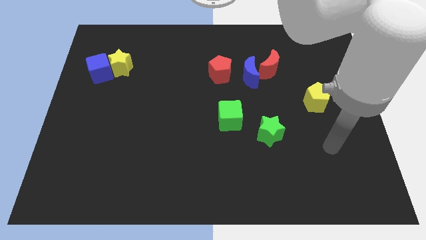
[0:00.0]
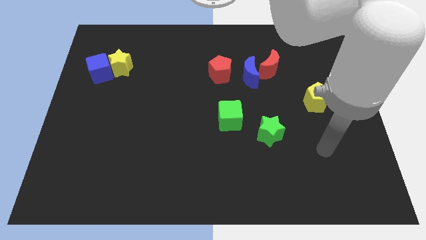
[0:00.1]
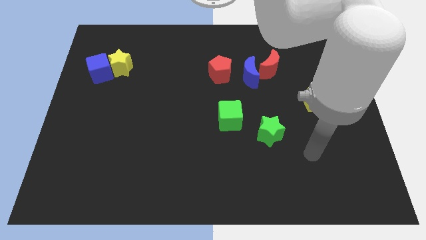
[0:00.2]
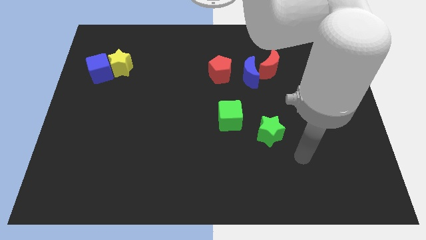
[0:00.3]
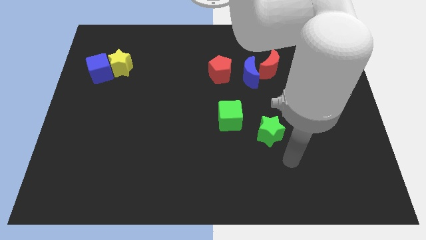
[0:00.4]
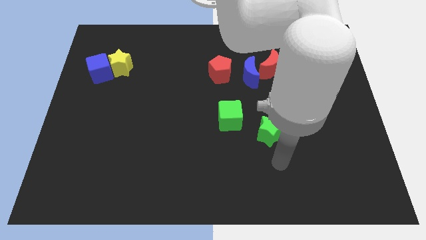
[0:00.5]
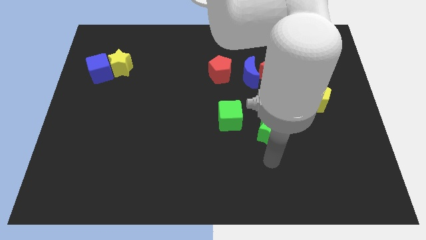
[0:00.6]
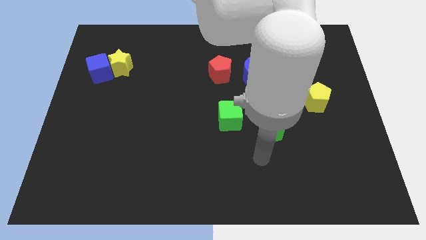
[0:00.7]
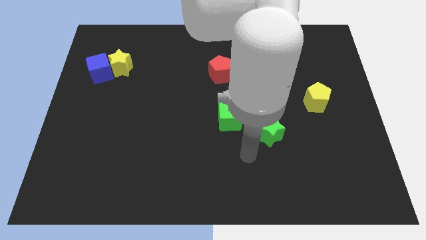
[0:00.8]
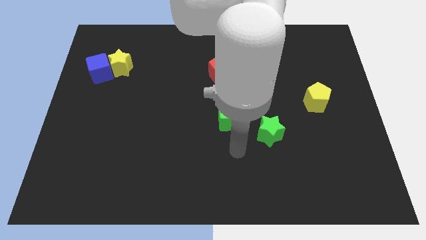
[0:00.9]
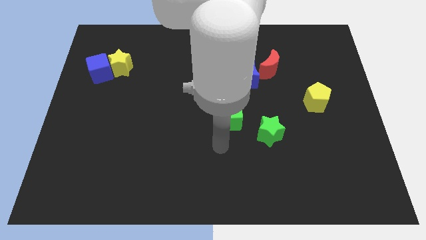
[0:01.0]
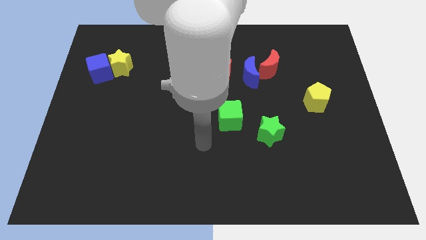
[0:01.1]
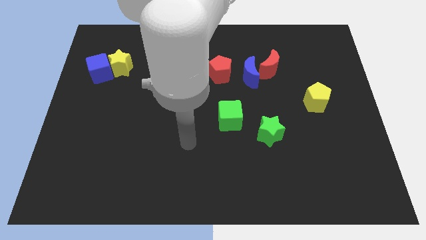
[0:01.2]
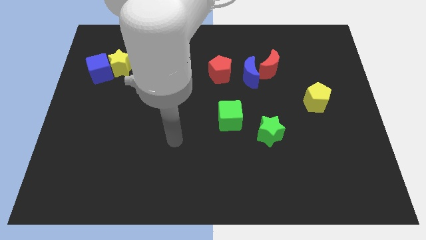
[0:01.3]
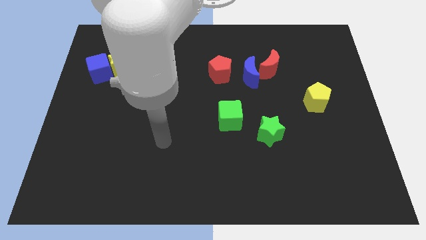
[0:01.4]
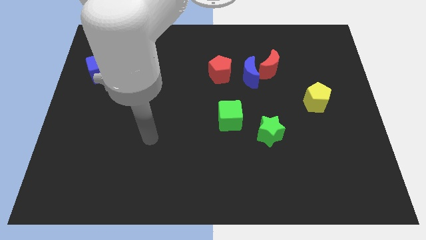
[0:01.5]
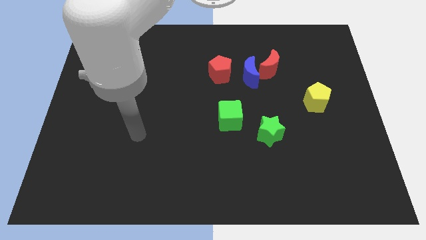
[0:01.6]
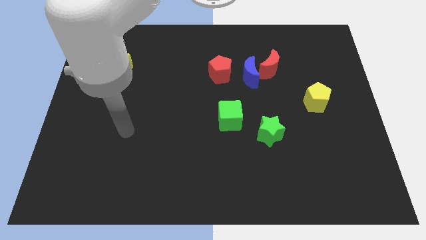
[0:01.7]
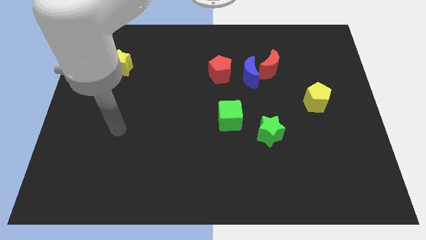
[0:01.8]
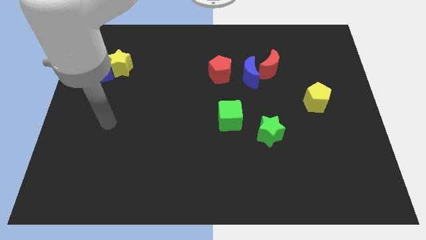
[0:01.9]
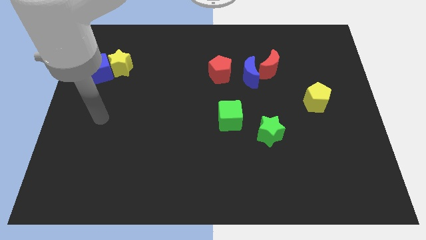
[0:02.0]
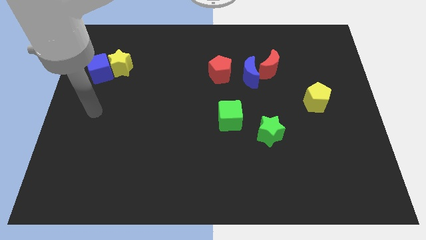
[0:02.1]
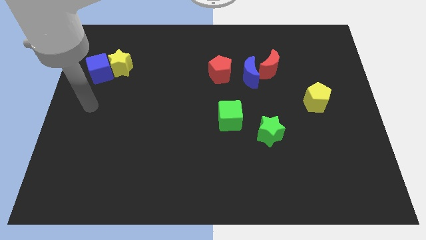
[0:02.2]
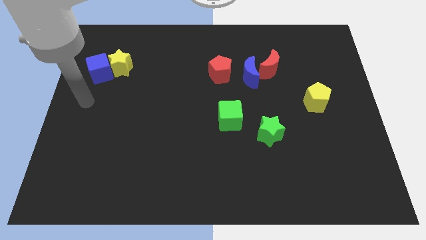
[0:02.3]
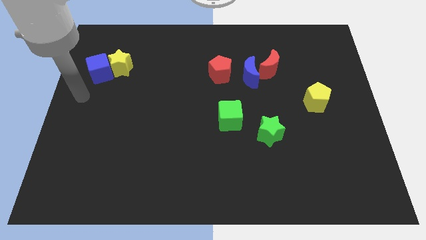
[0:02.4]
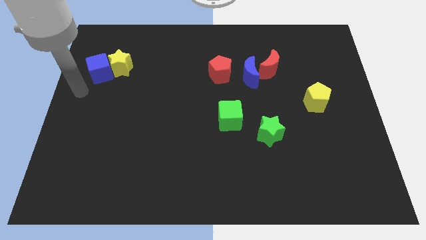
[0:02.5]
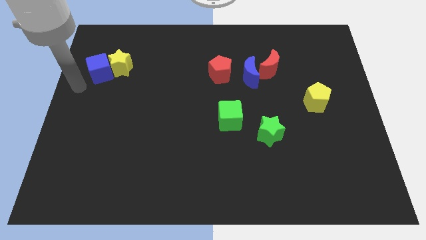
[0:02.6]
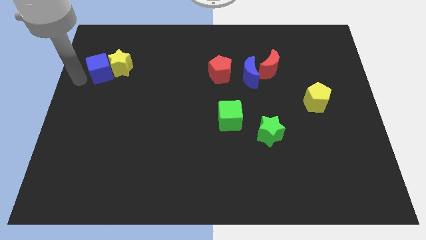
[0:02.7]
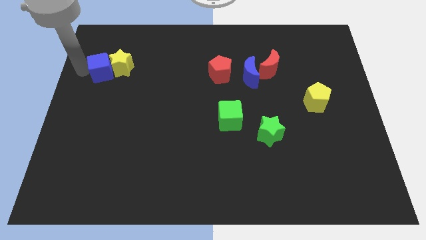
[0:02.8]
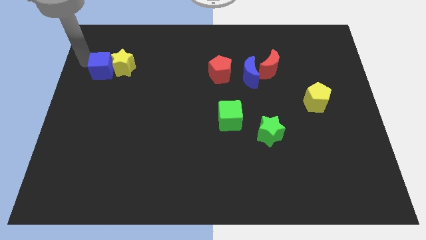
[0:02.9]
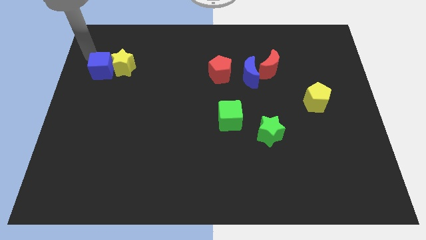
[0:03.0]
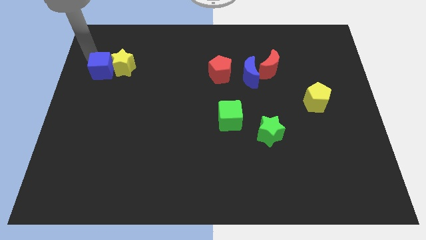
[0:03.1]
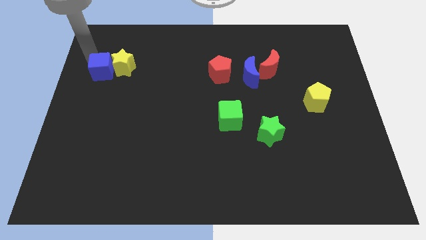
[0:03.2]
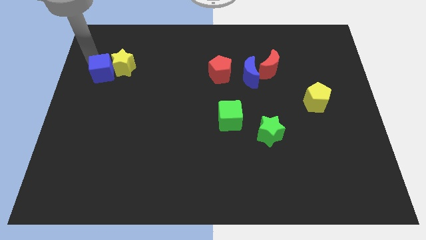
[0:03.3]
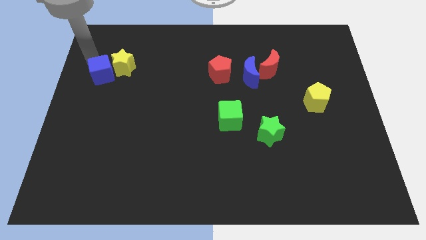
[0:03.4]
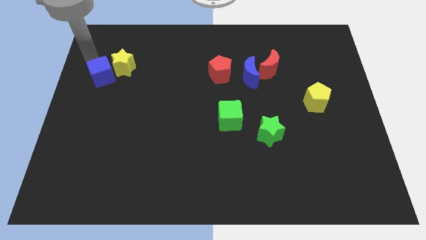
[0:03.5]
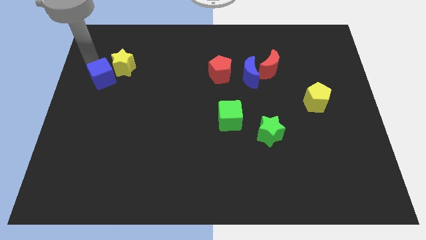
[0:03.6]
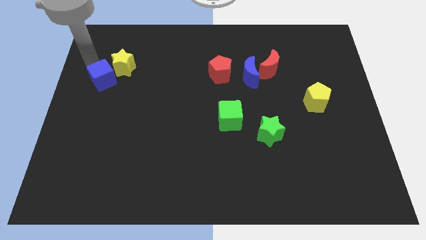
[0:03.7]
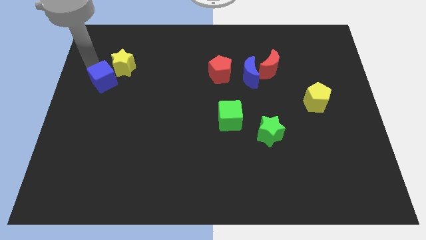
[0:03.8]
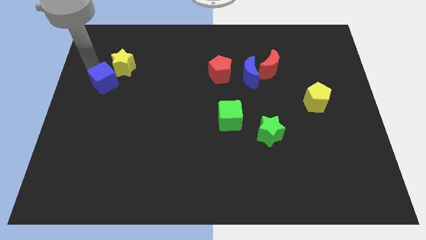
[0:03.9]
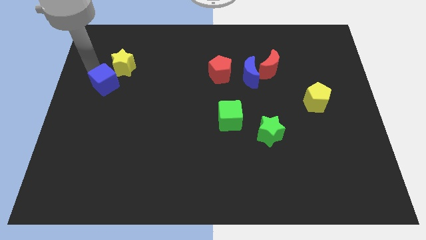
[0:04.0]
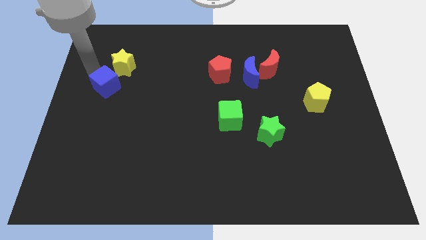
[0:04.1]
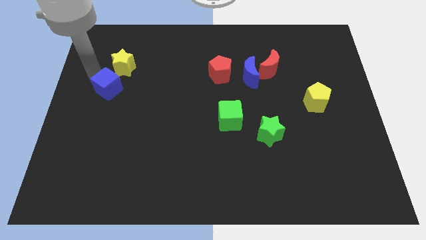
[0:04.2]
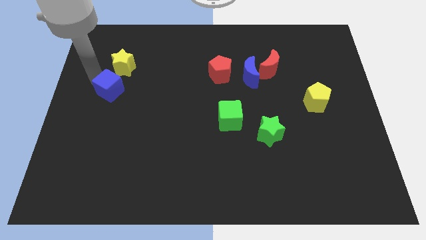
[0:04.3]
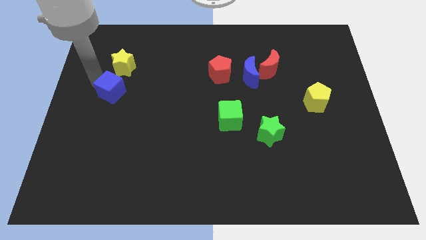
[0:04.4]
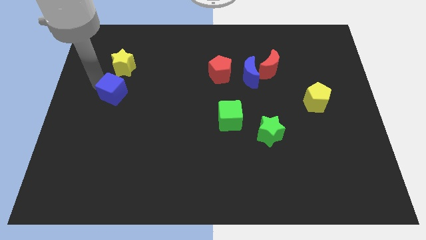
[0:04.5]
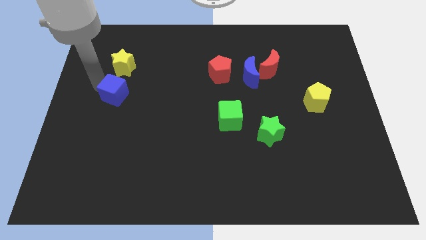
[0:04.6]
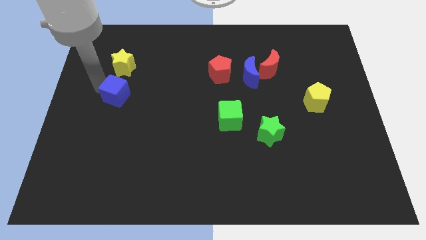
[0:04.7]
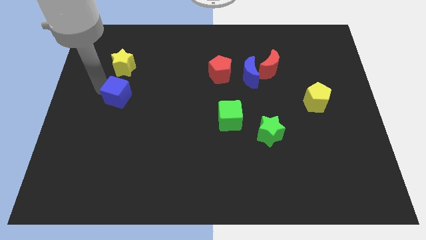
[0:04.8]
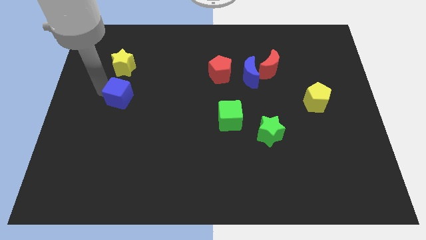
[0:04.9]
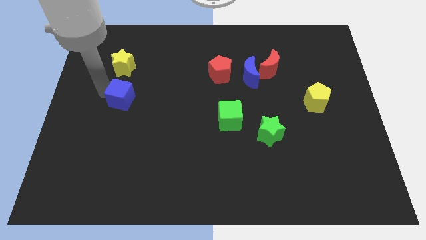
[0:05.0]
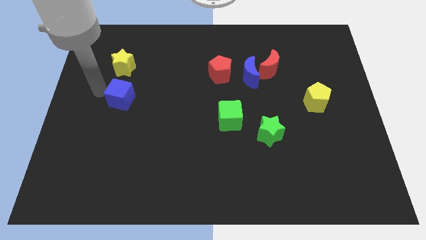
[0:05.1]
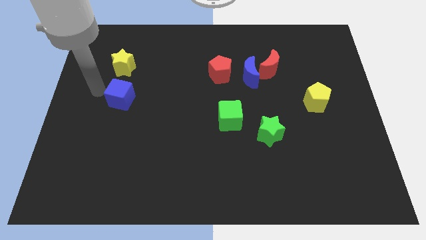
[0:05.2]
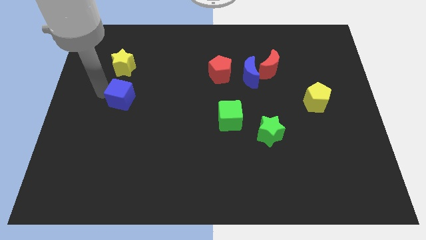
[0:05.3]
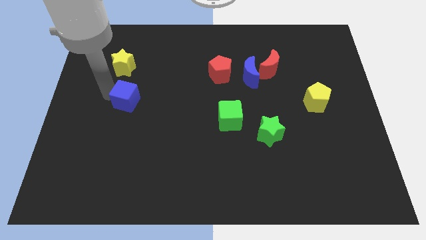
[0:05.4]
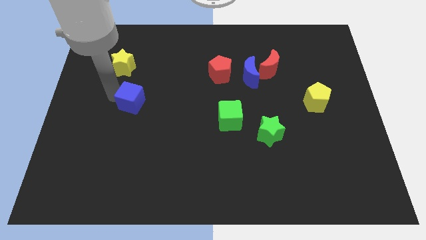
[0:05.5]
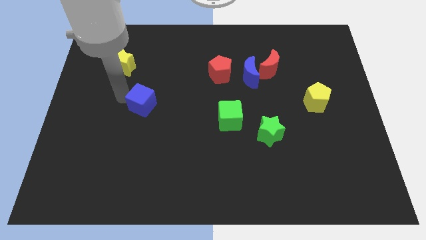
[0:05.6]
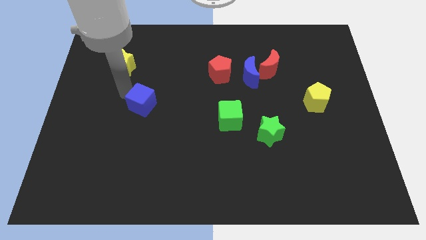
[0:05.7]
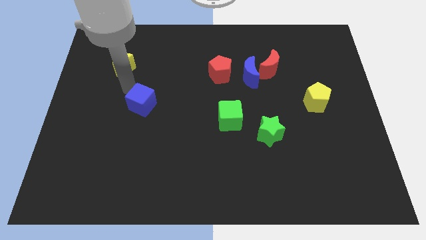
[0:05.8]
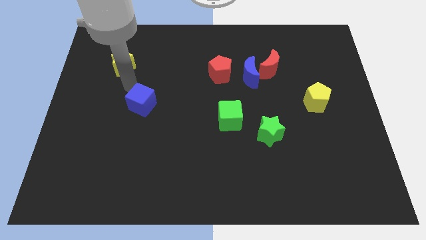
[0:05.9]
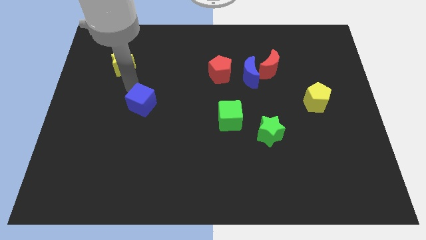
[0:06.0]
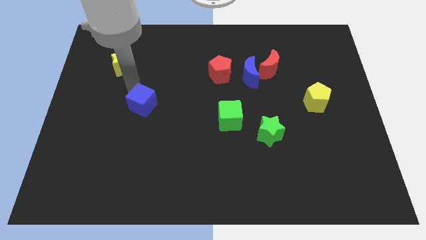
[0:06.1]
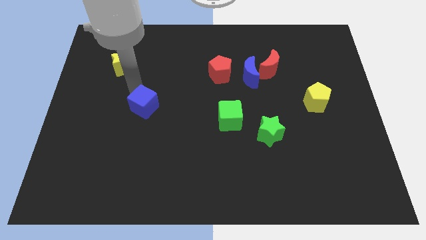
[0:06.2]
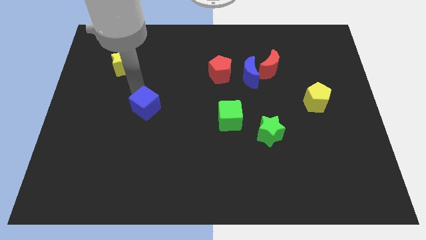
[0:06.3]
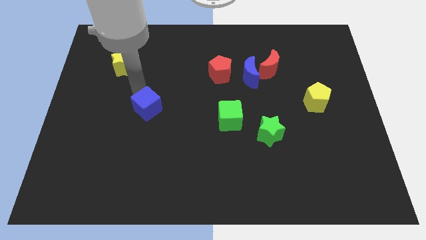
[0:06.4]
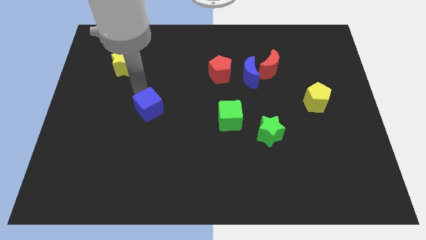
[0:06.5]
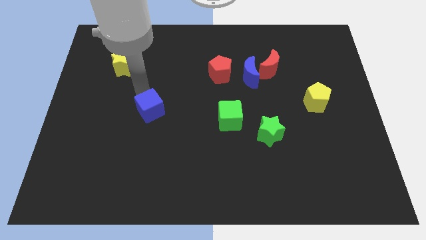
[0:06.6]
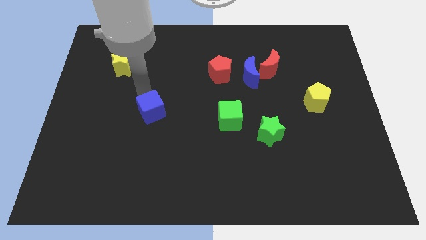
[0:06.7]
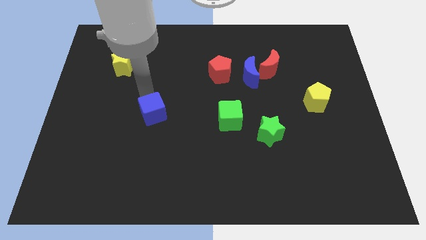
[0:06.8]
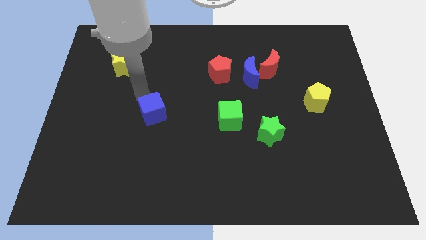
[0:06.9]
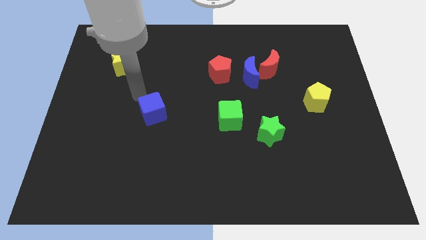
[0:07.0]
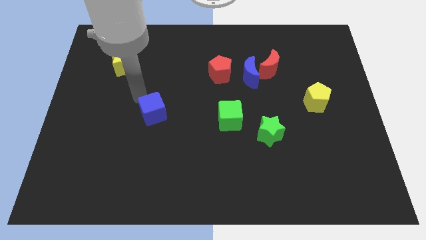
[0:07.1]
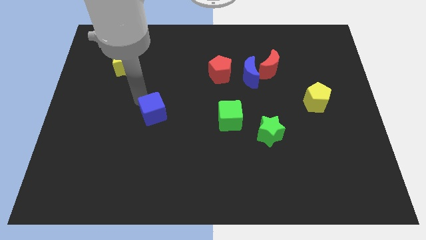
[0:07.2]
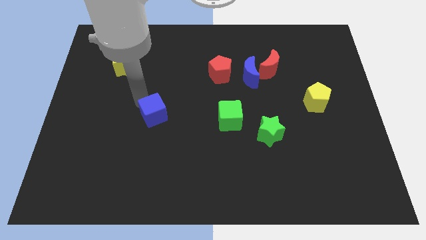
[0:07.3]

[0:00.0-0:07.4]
push the blue cube diagonally downwards and right

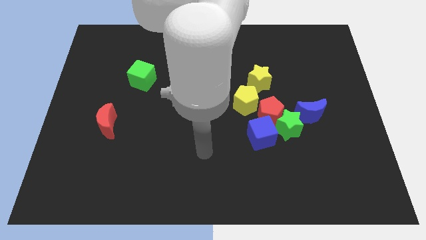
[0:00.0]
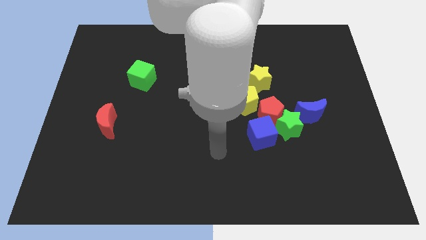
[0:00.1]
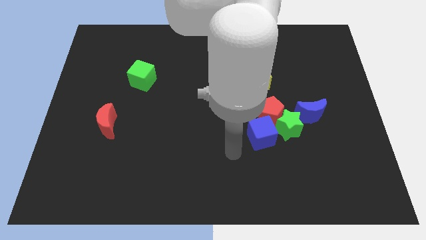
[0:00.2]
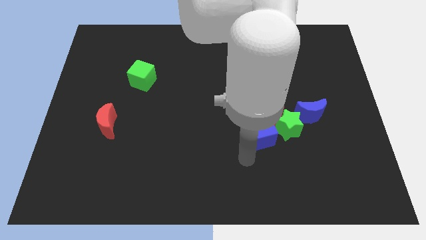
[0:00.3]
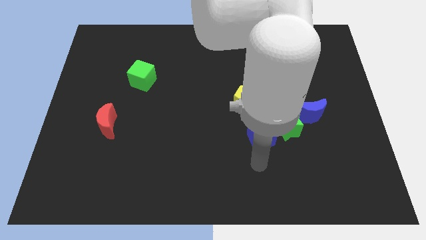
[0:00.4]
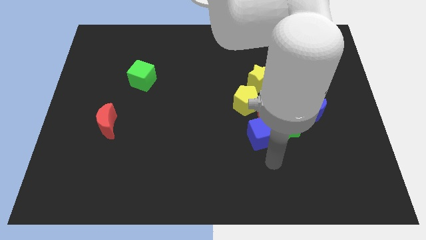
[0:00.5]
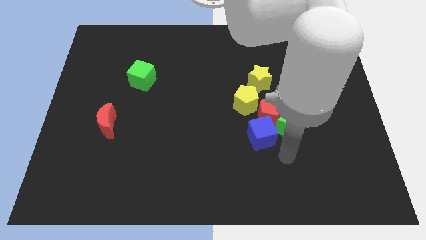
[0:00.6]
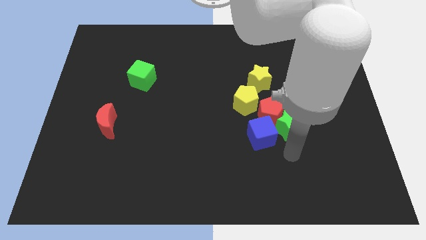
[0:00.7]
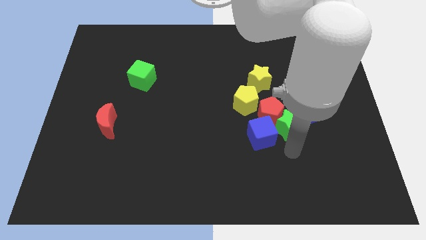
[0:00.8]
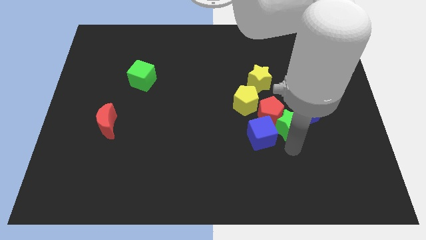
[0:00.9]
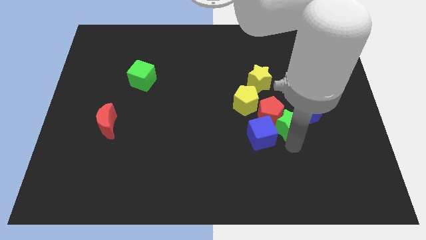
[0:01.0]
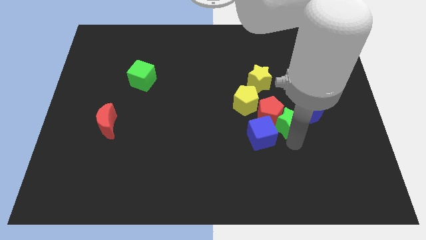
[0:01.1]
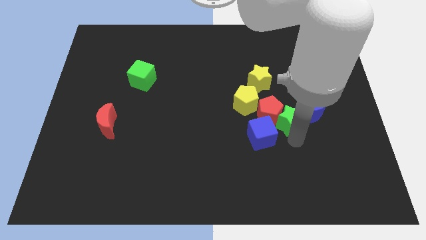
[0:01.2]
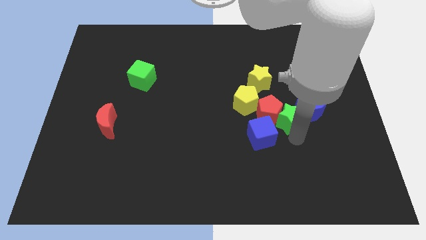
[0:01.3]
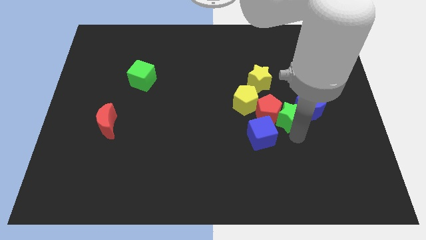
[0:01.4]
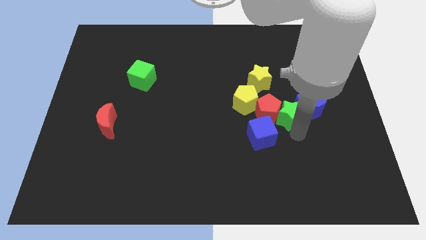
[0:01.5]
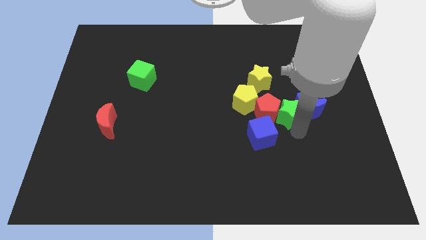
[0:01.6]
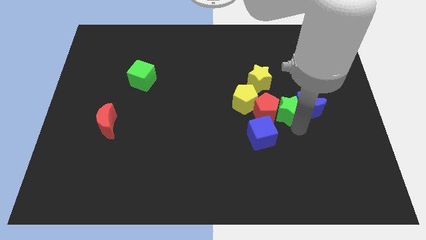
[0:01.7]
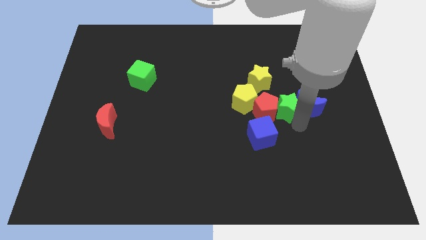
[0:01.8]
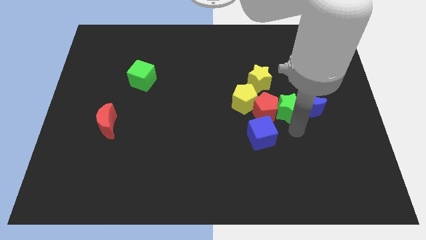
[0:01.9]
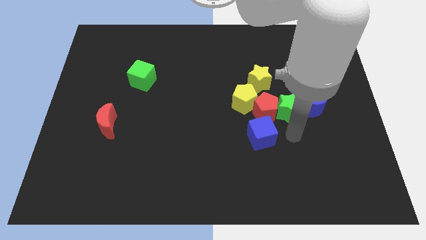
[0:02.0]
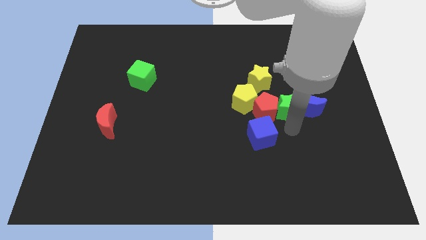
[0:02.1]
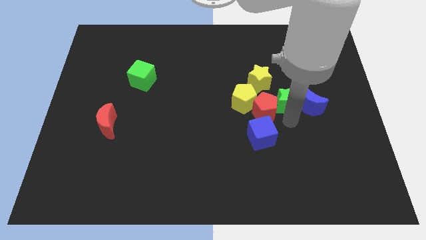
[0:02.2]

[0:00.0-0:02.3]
push the green star a little bit up
